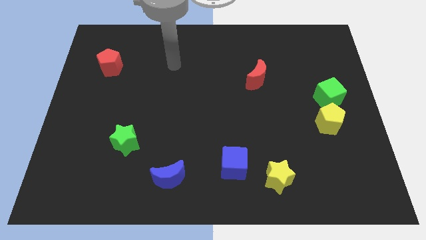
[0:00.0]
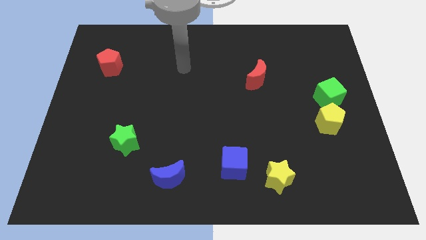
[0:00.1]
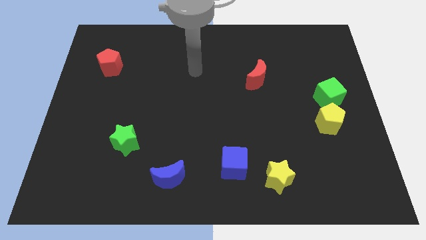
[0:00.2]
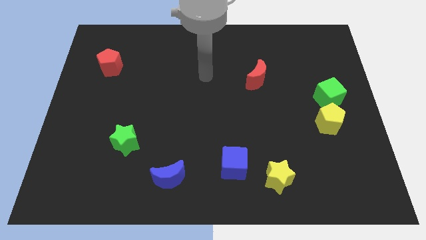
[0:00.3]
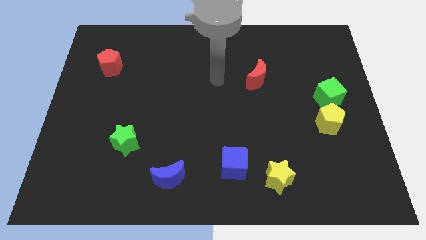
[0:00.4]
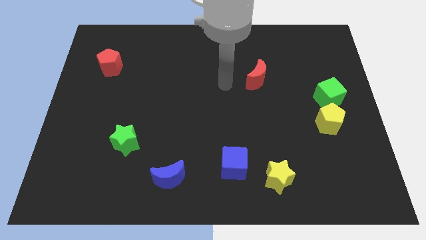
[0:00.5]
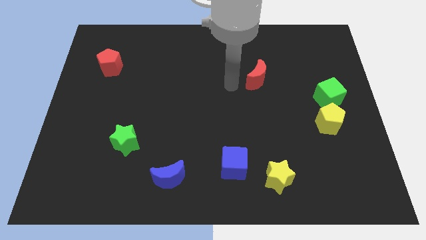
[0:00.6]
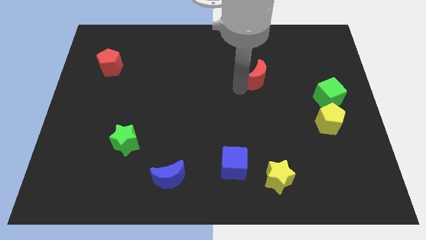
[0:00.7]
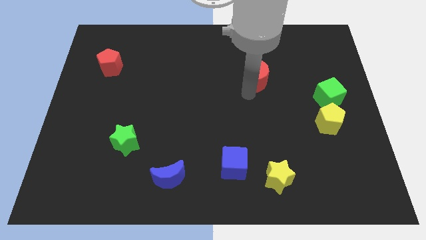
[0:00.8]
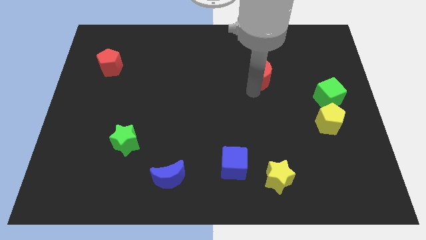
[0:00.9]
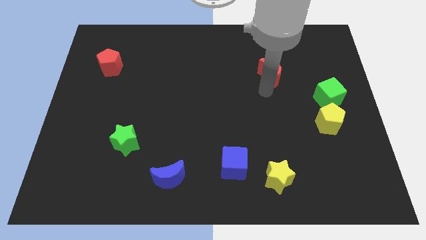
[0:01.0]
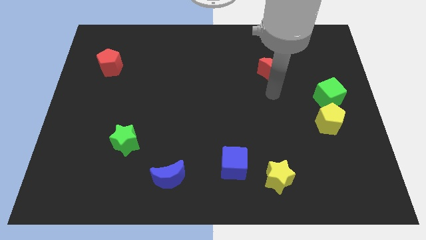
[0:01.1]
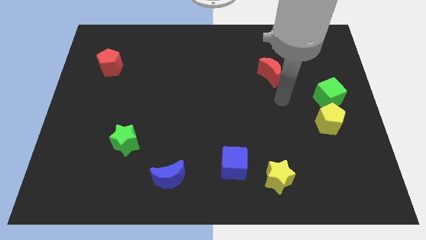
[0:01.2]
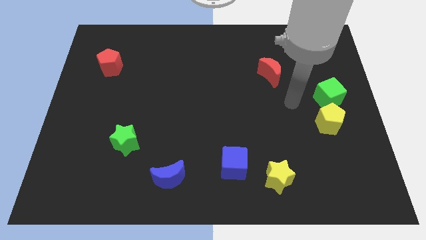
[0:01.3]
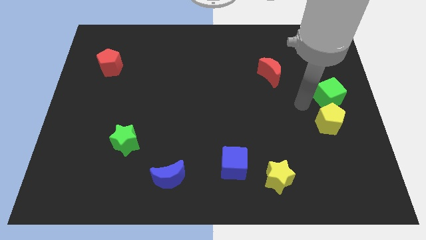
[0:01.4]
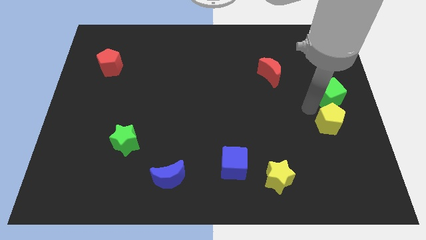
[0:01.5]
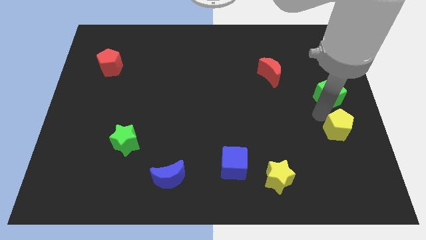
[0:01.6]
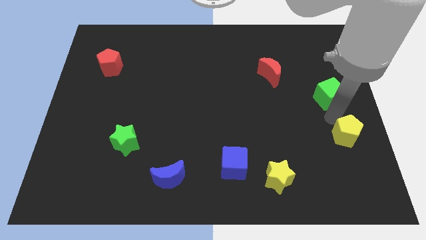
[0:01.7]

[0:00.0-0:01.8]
separate the green cube from the yellow pentagon

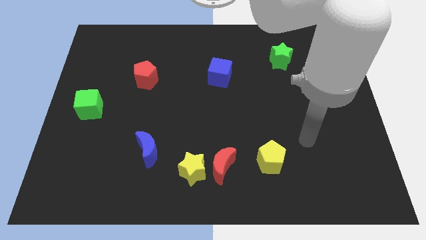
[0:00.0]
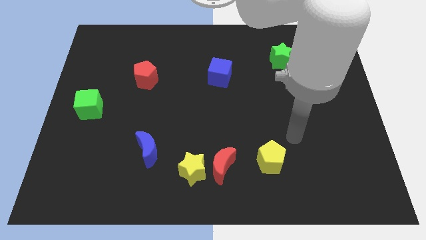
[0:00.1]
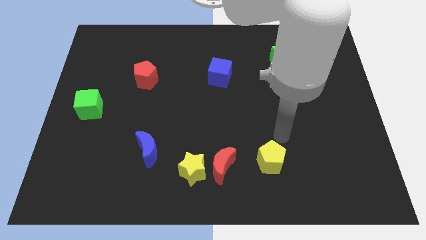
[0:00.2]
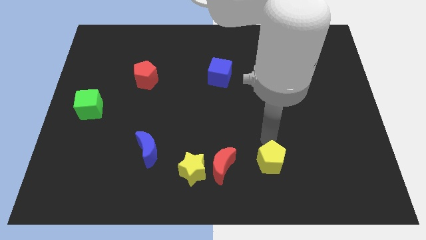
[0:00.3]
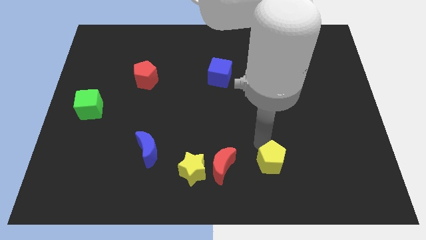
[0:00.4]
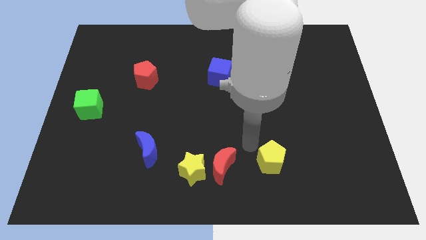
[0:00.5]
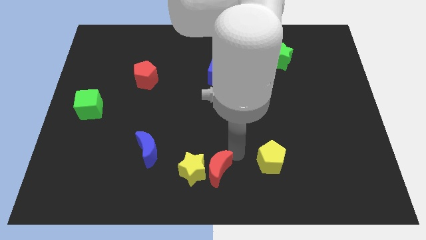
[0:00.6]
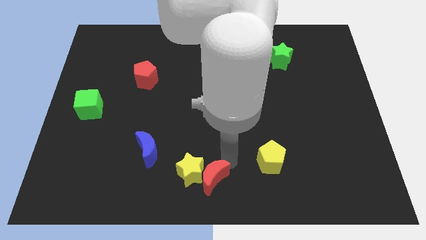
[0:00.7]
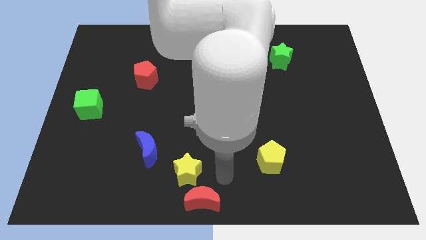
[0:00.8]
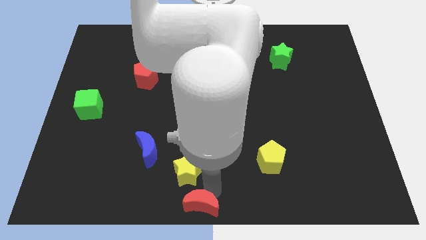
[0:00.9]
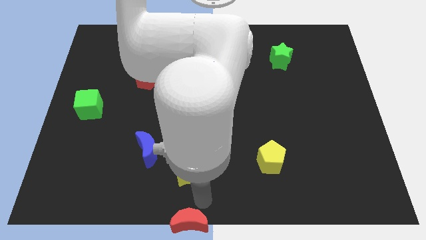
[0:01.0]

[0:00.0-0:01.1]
pull the yellow star apart from the red moon

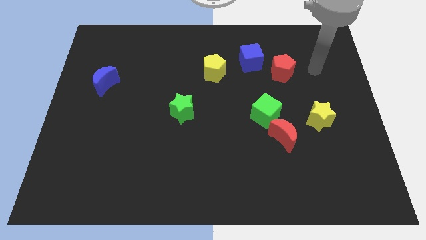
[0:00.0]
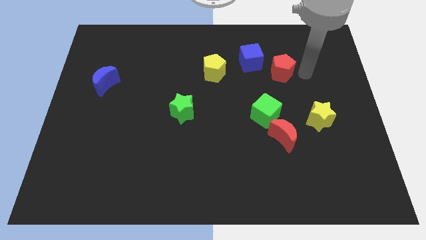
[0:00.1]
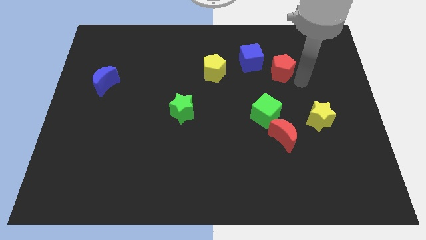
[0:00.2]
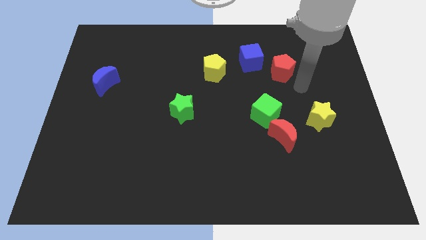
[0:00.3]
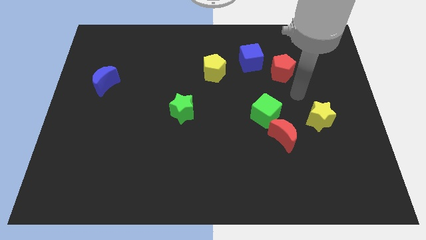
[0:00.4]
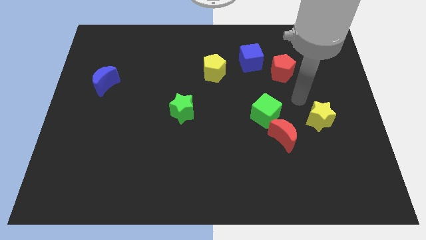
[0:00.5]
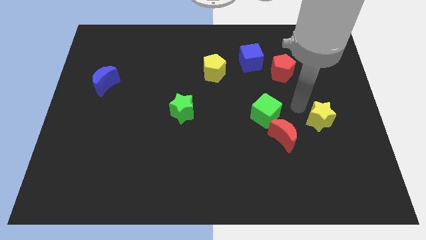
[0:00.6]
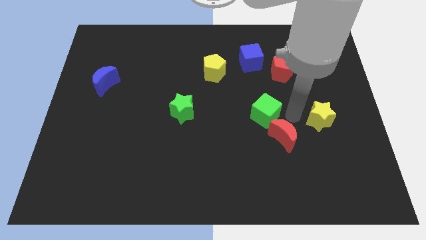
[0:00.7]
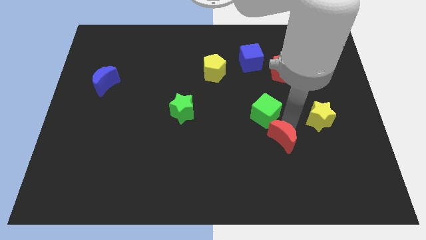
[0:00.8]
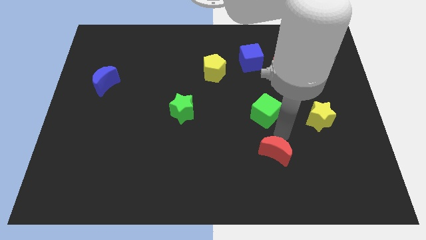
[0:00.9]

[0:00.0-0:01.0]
move the green cube away from the red moon

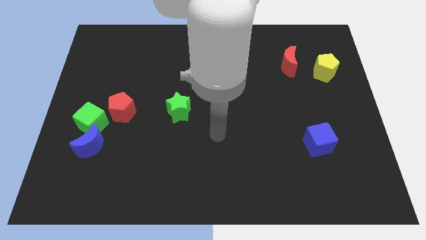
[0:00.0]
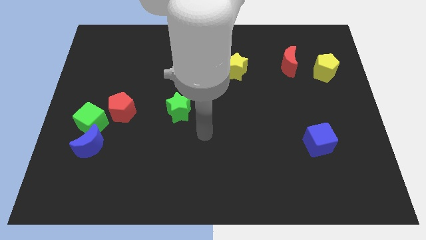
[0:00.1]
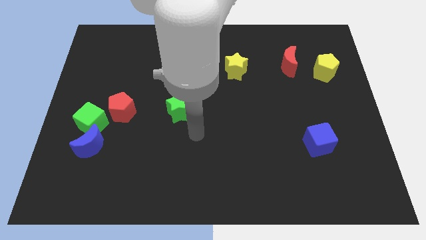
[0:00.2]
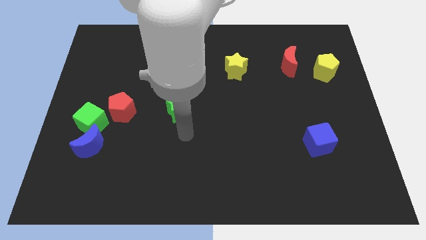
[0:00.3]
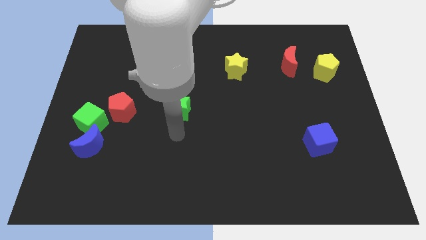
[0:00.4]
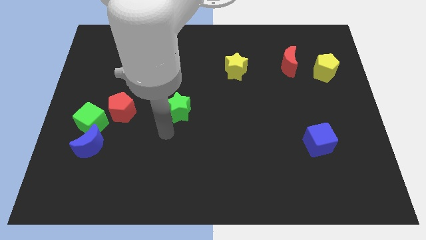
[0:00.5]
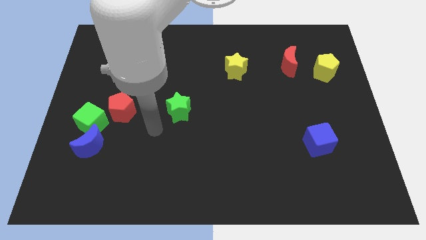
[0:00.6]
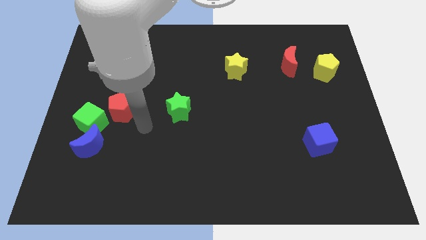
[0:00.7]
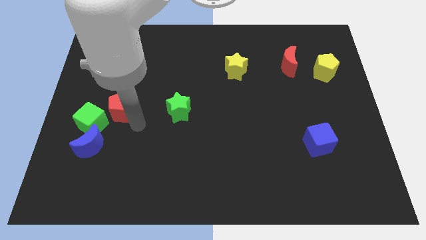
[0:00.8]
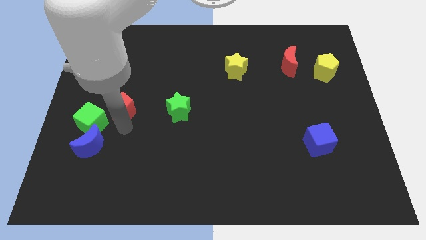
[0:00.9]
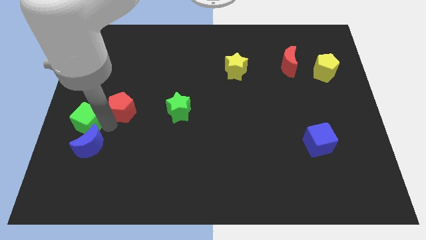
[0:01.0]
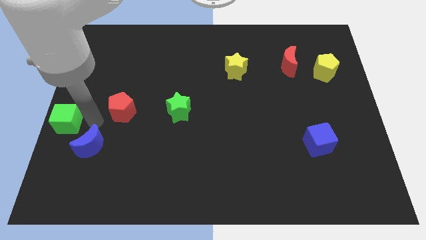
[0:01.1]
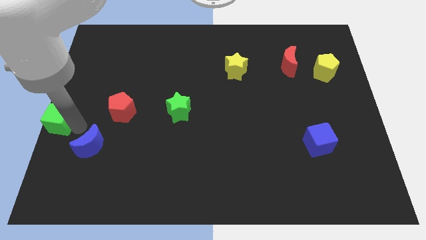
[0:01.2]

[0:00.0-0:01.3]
move the blue moon away from the green cube

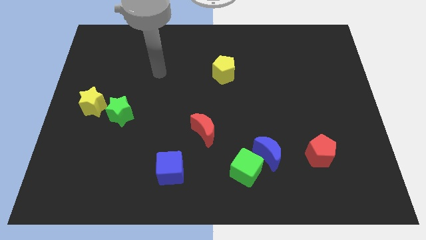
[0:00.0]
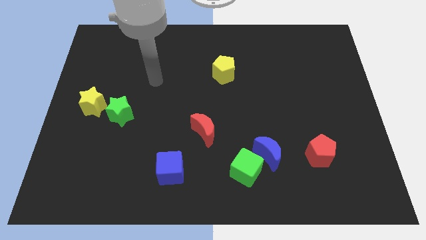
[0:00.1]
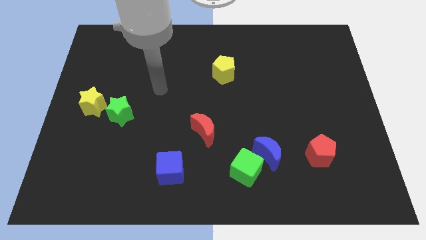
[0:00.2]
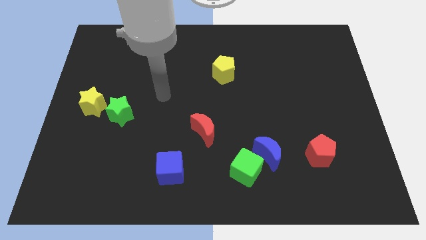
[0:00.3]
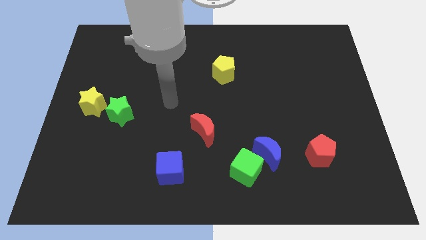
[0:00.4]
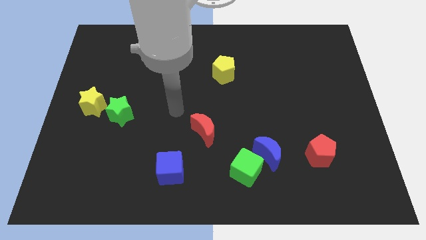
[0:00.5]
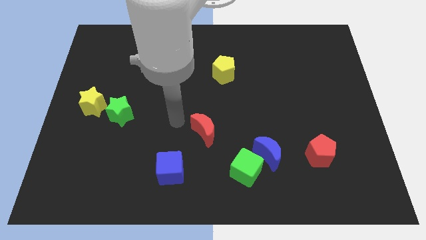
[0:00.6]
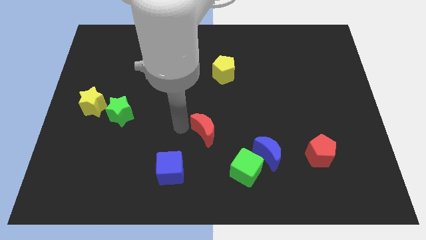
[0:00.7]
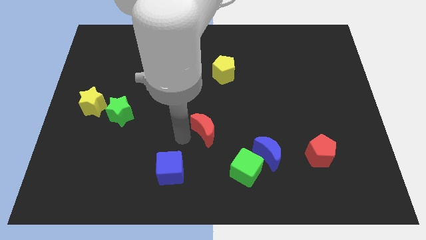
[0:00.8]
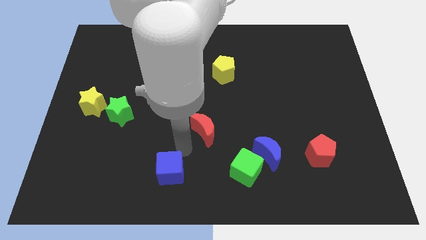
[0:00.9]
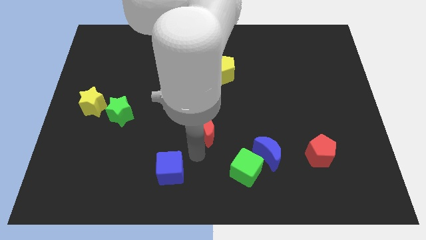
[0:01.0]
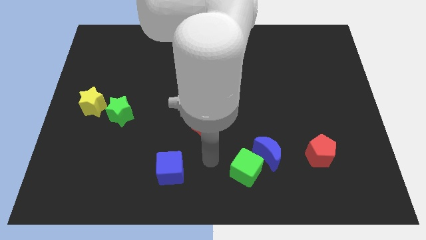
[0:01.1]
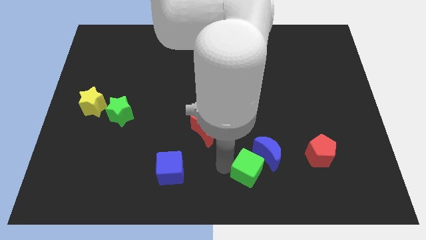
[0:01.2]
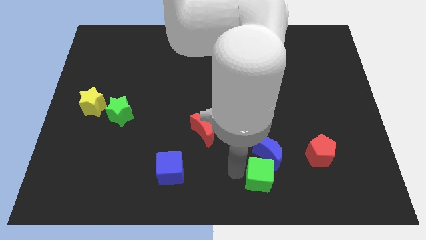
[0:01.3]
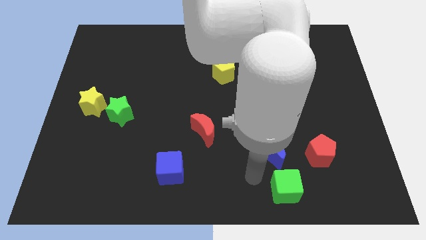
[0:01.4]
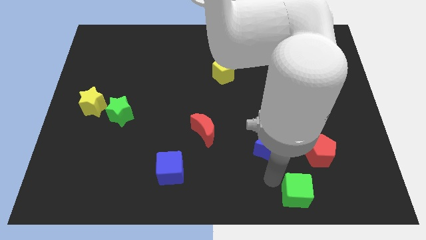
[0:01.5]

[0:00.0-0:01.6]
separate the blue moon from the green cube

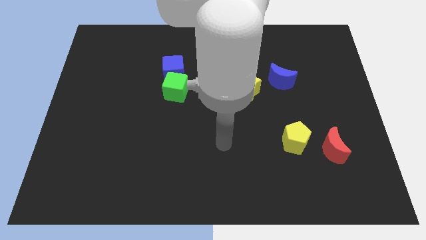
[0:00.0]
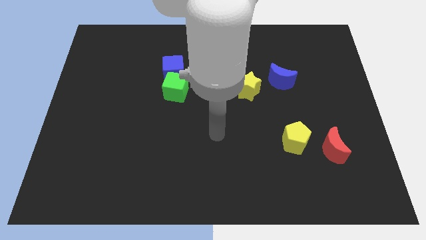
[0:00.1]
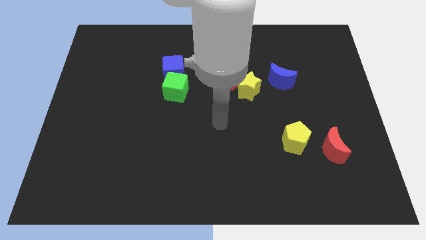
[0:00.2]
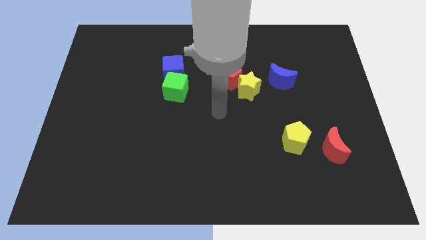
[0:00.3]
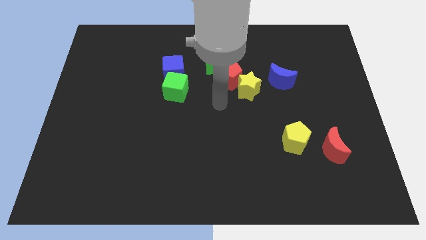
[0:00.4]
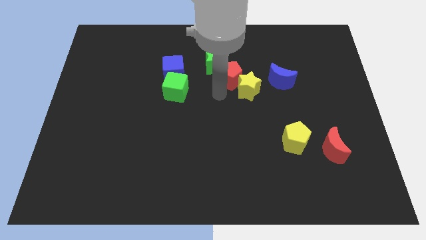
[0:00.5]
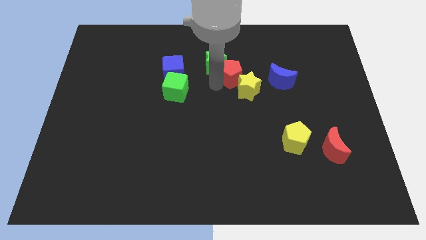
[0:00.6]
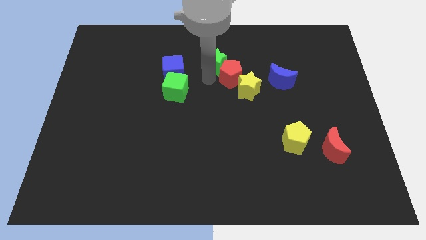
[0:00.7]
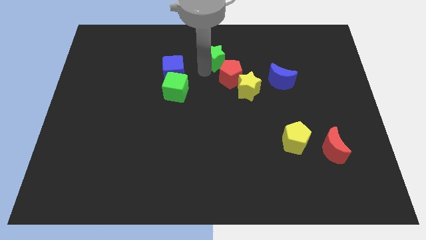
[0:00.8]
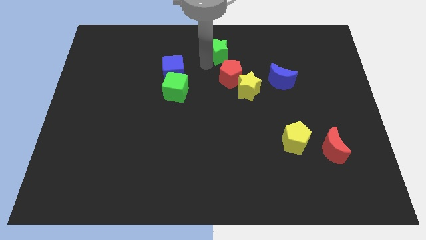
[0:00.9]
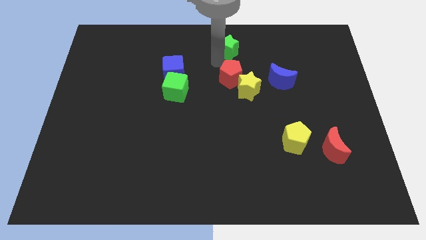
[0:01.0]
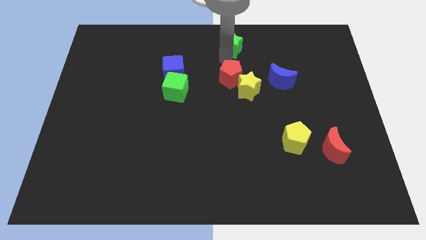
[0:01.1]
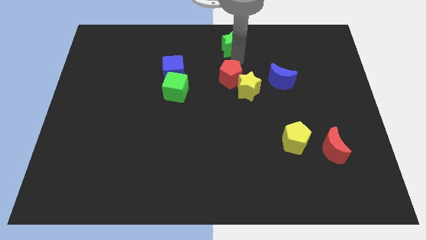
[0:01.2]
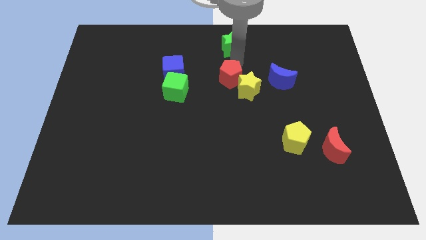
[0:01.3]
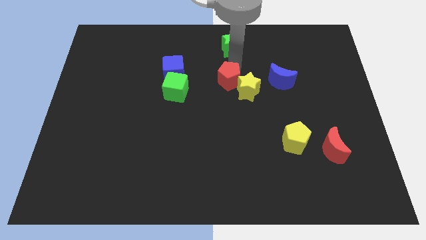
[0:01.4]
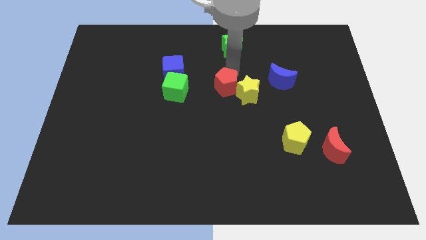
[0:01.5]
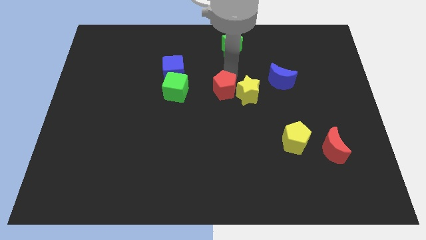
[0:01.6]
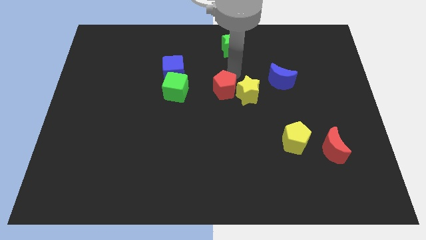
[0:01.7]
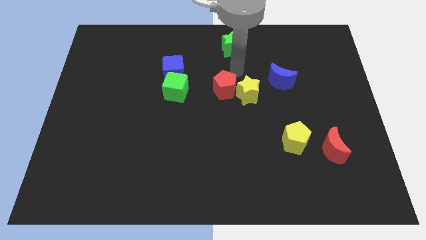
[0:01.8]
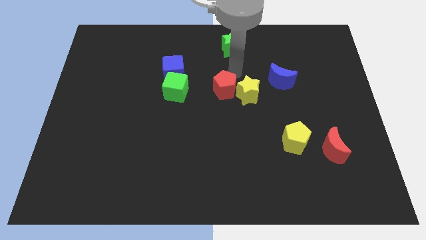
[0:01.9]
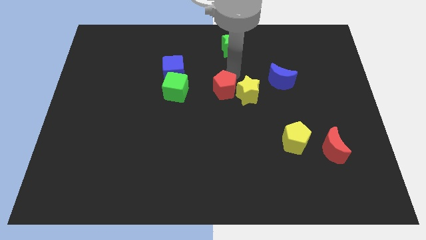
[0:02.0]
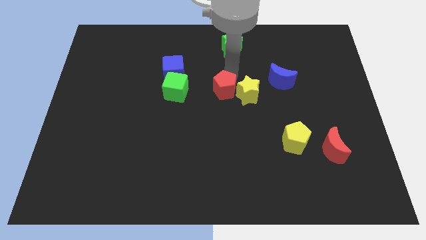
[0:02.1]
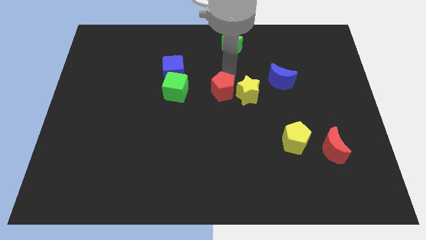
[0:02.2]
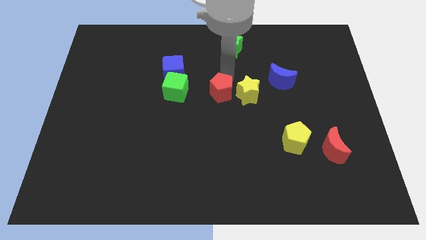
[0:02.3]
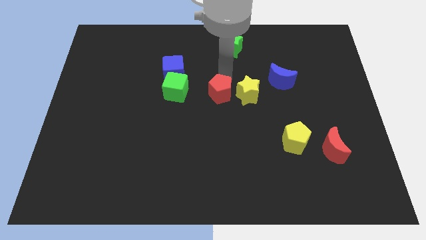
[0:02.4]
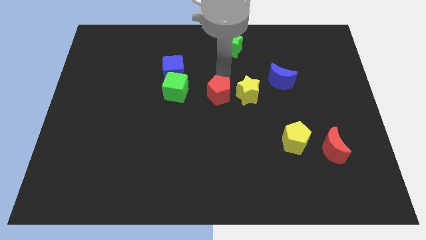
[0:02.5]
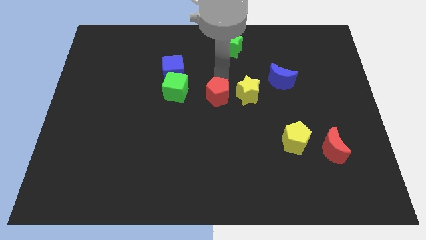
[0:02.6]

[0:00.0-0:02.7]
move the red pentagon away from the yellow star and green star
